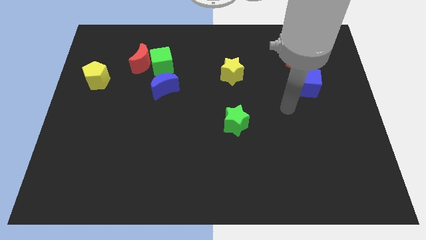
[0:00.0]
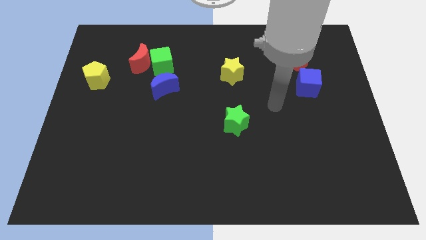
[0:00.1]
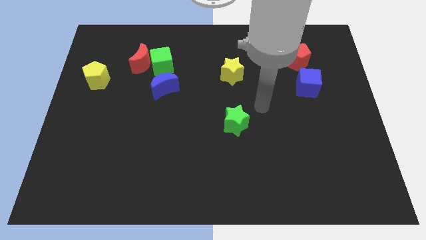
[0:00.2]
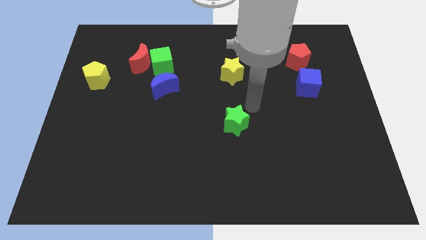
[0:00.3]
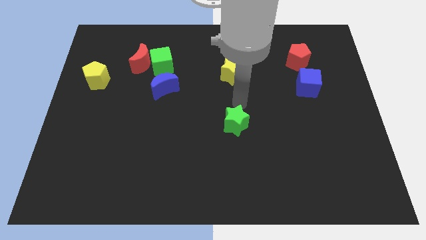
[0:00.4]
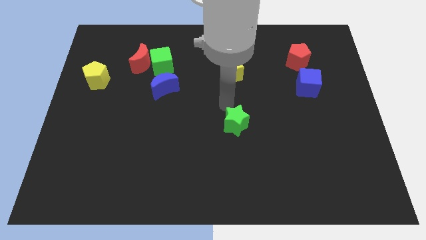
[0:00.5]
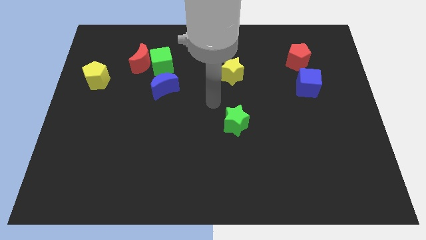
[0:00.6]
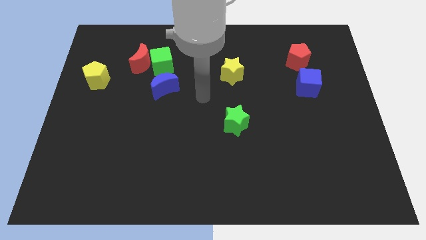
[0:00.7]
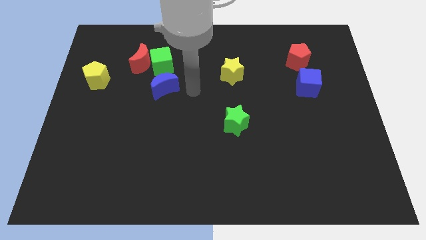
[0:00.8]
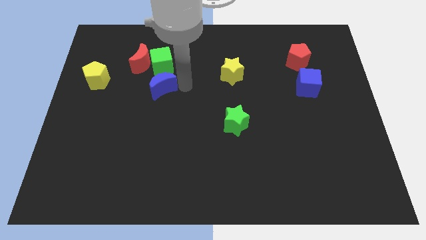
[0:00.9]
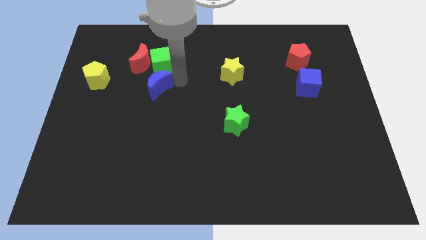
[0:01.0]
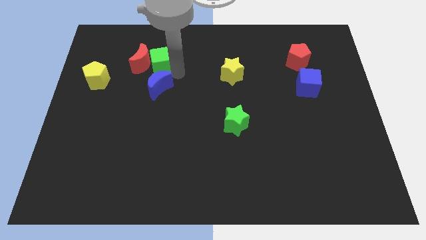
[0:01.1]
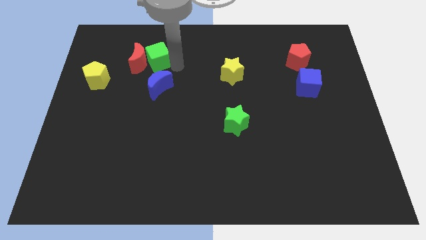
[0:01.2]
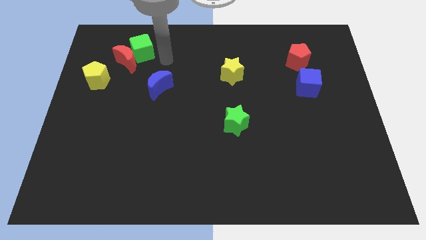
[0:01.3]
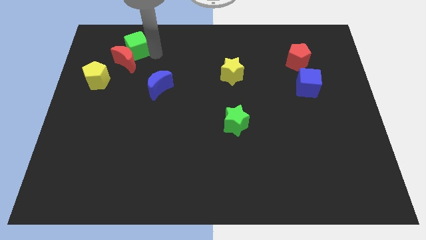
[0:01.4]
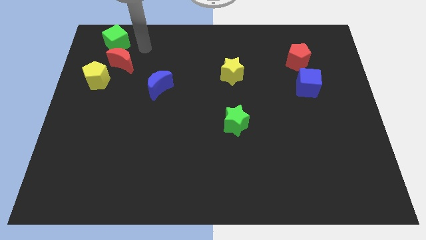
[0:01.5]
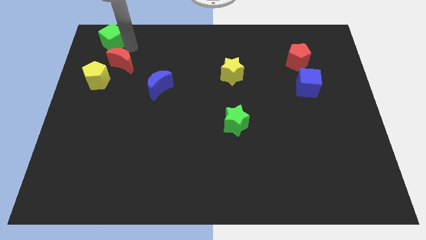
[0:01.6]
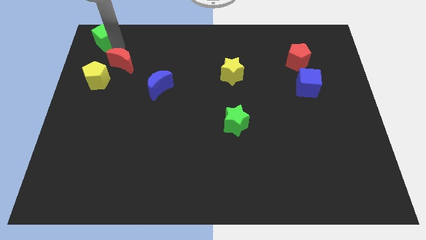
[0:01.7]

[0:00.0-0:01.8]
pull the red moon apart from the green cube

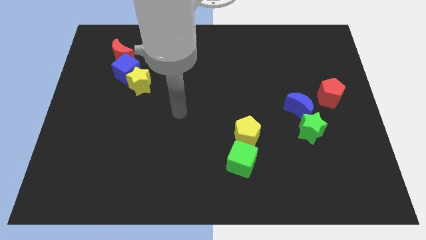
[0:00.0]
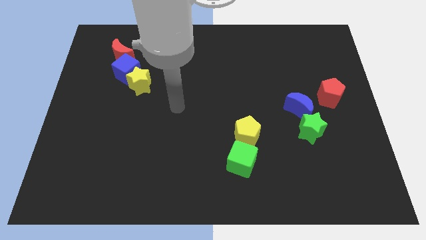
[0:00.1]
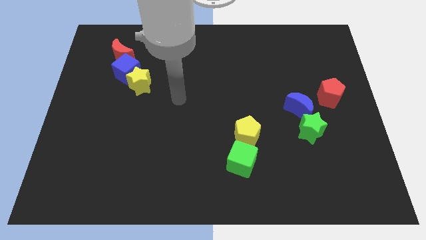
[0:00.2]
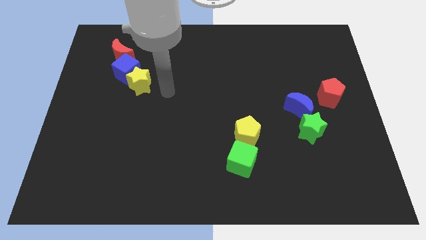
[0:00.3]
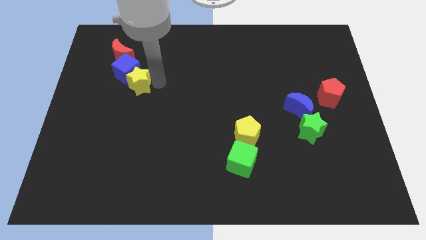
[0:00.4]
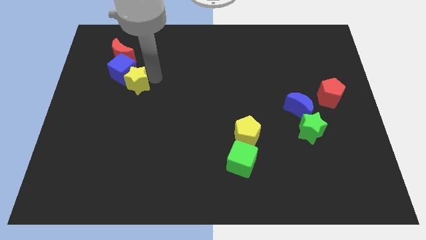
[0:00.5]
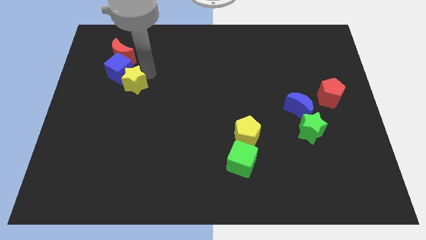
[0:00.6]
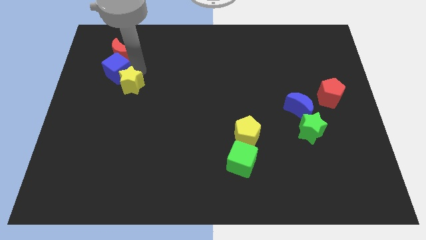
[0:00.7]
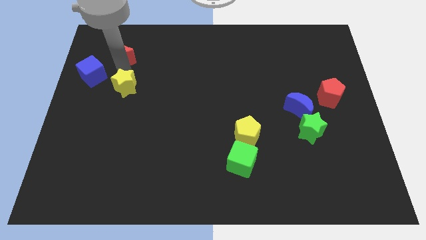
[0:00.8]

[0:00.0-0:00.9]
separate the yellow star from the blue cube

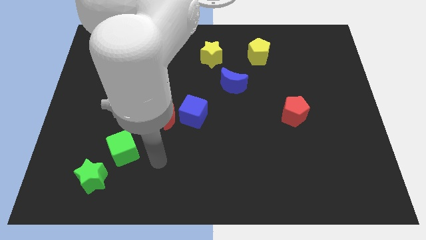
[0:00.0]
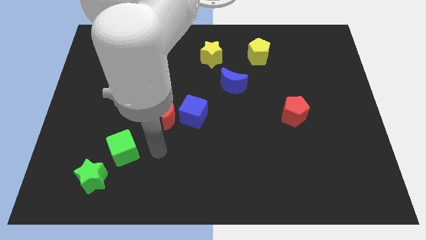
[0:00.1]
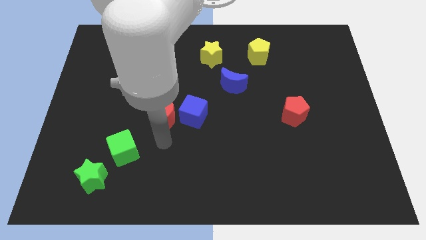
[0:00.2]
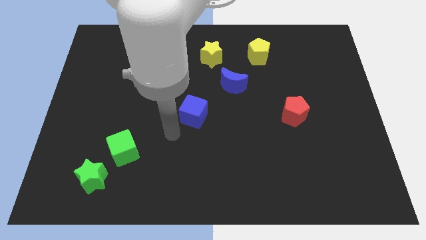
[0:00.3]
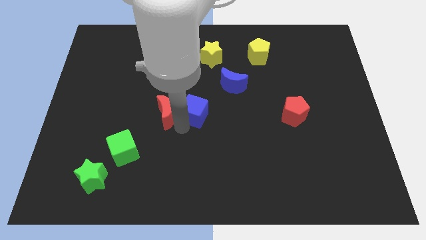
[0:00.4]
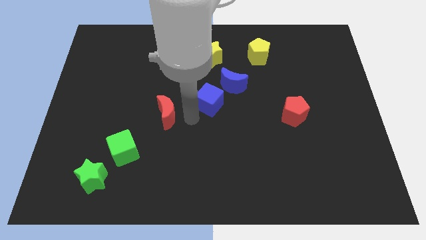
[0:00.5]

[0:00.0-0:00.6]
separate the red moon from the blue cube

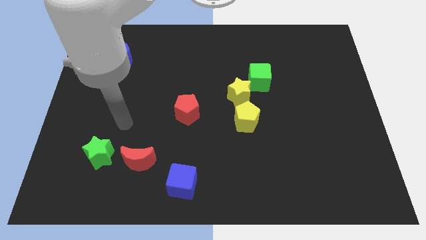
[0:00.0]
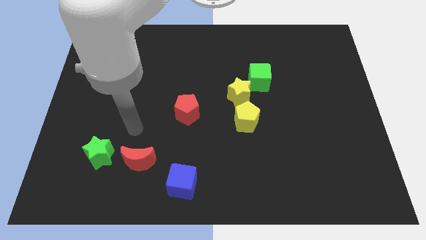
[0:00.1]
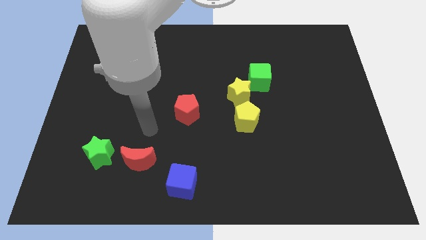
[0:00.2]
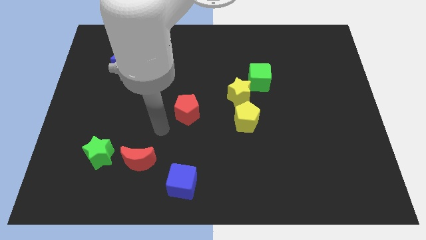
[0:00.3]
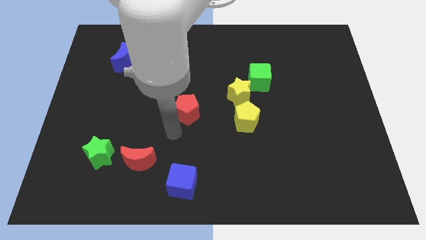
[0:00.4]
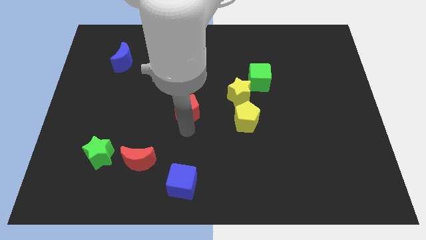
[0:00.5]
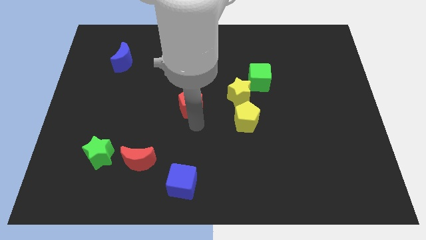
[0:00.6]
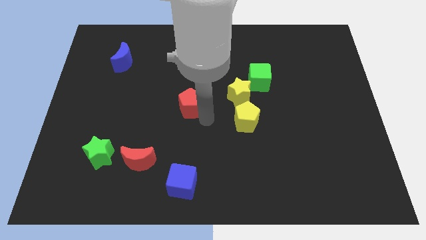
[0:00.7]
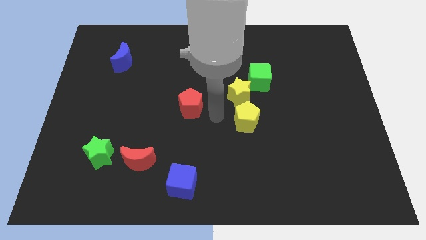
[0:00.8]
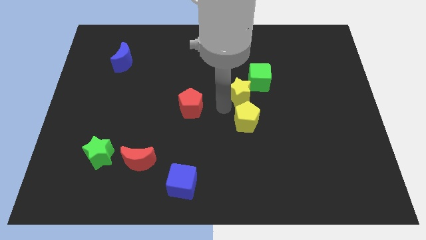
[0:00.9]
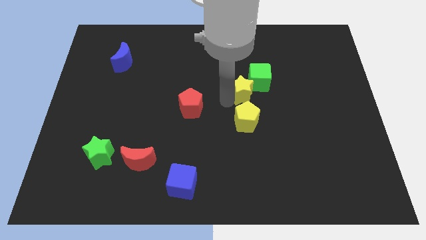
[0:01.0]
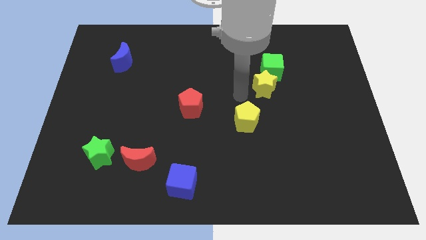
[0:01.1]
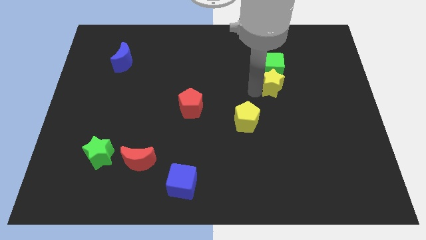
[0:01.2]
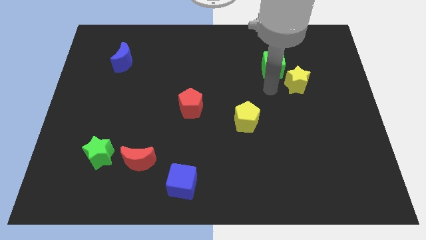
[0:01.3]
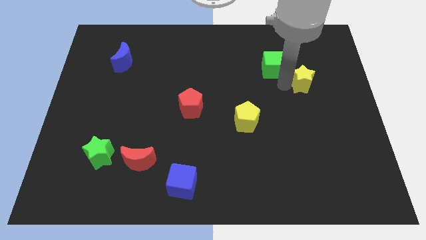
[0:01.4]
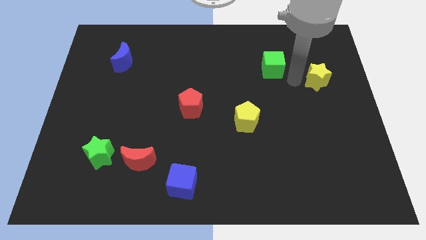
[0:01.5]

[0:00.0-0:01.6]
move the green cube away from the yellow star

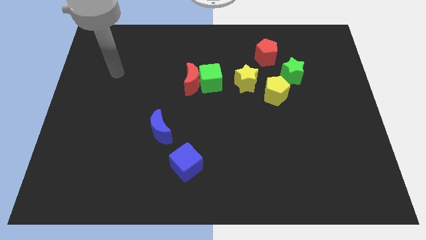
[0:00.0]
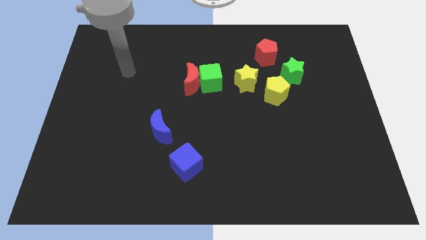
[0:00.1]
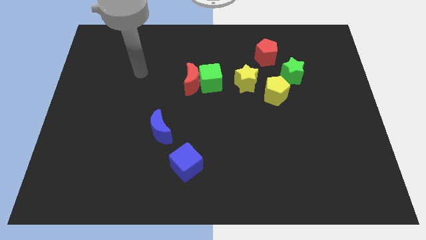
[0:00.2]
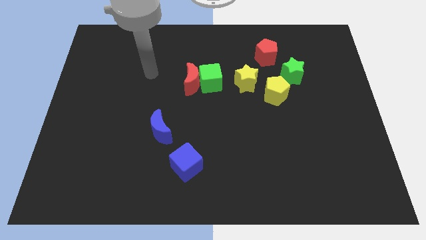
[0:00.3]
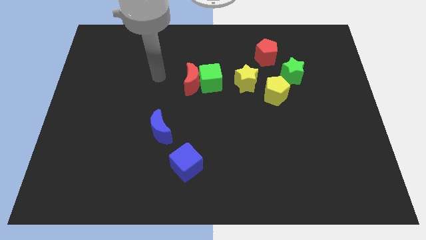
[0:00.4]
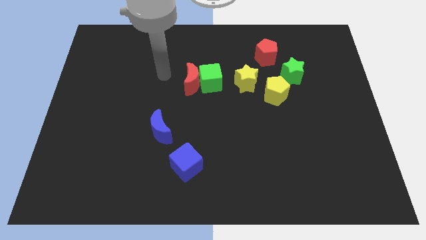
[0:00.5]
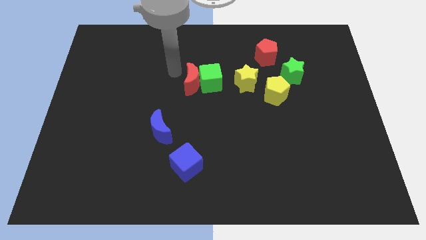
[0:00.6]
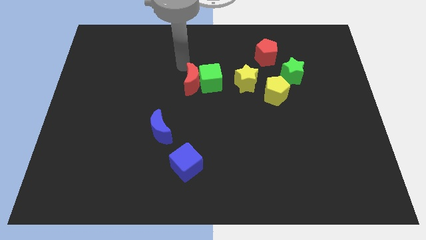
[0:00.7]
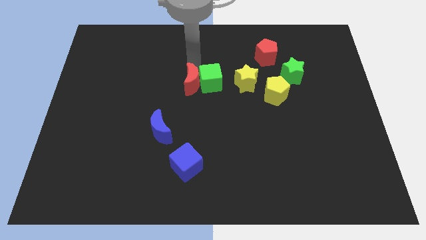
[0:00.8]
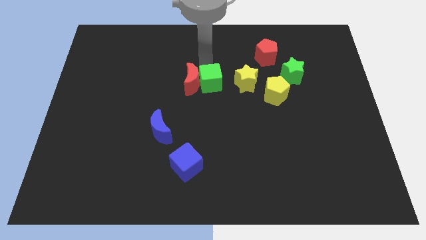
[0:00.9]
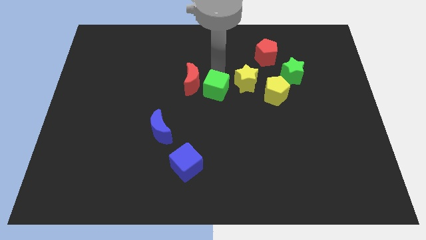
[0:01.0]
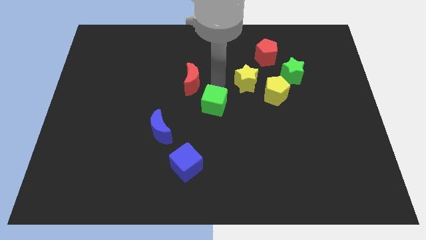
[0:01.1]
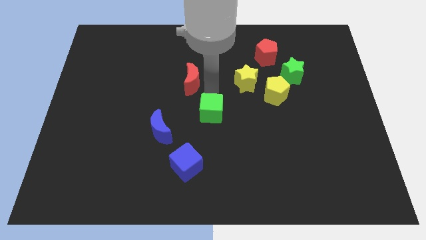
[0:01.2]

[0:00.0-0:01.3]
move the red moon away from the green cube

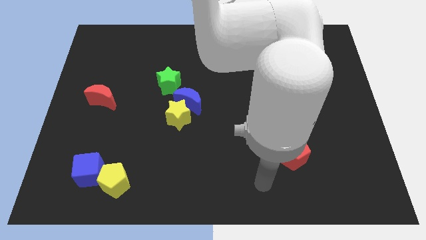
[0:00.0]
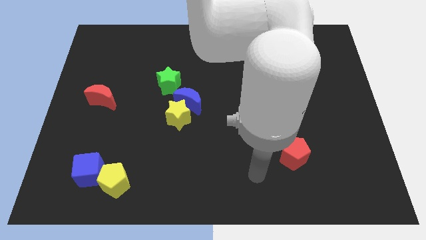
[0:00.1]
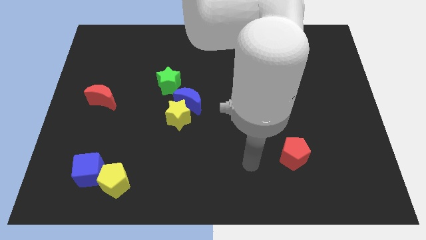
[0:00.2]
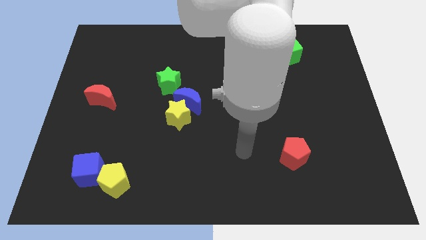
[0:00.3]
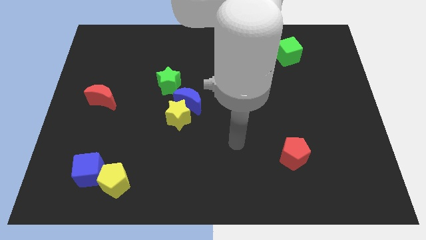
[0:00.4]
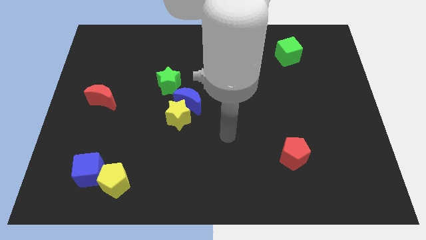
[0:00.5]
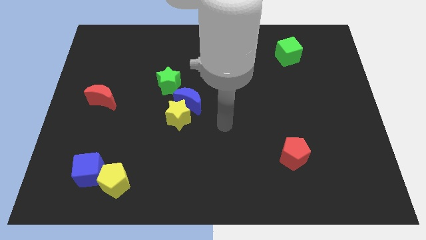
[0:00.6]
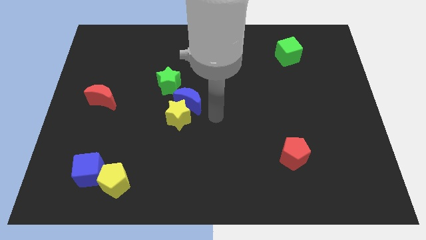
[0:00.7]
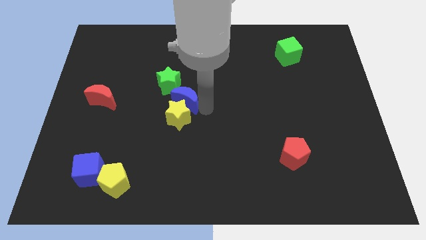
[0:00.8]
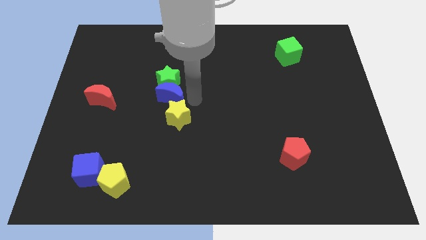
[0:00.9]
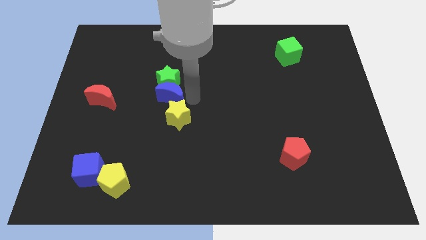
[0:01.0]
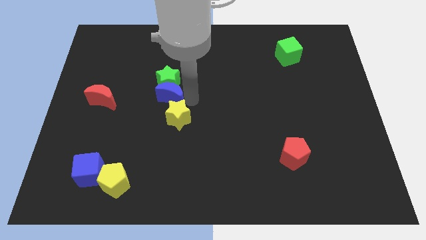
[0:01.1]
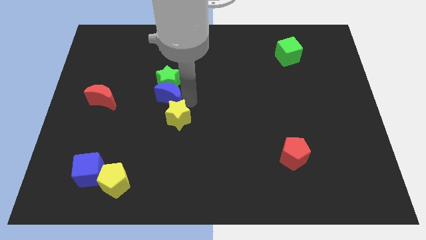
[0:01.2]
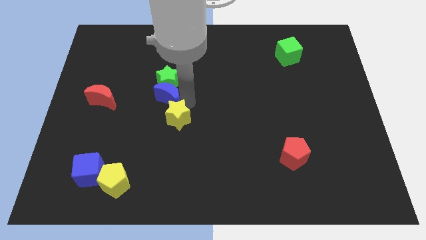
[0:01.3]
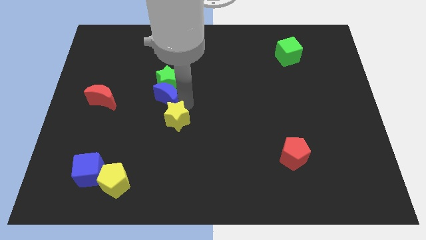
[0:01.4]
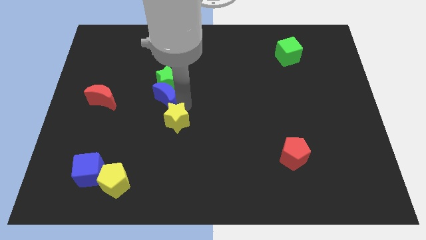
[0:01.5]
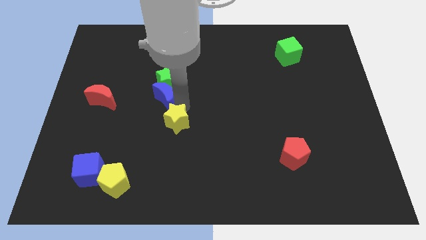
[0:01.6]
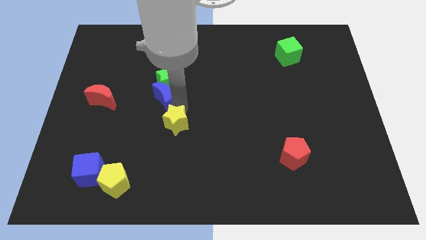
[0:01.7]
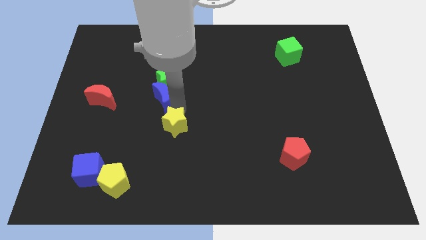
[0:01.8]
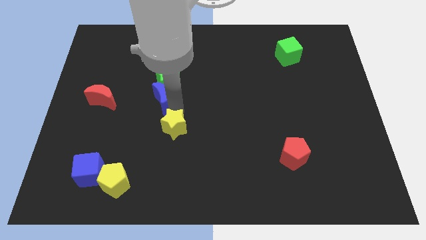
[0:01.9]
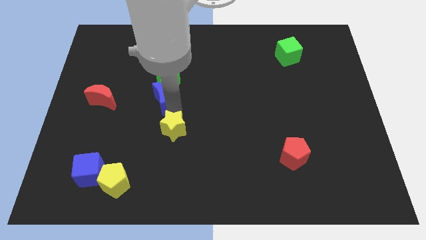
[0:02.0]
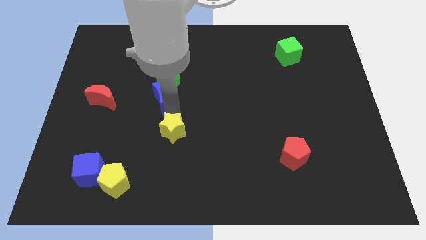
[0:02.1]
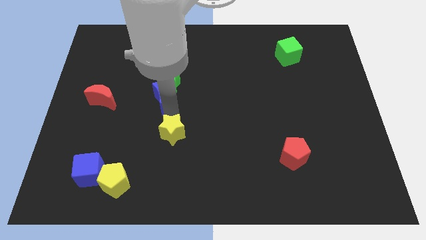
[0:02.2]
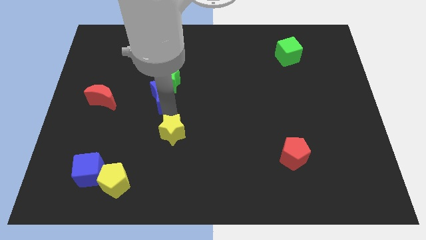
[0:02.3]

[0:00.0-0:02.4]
move the yellow star away from the blue moon

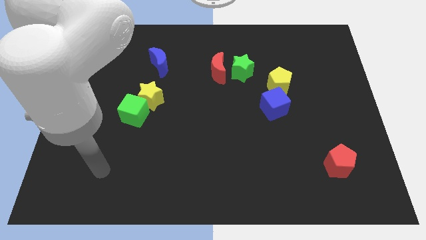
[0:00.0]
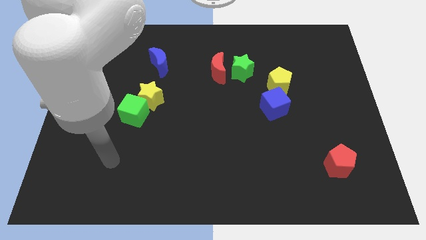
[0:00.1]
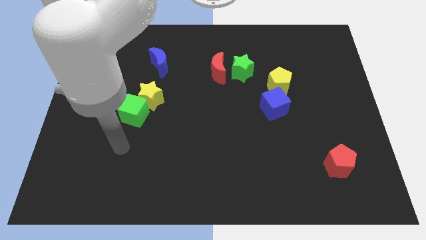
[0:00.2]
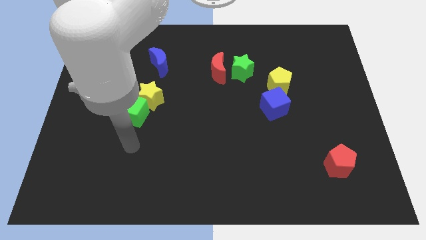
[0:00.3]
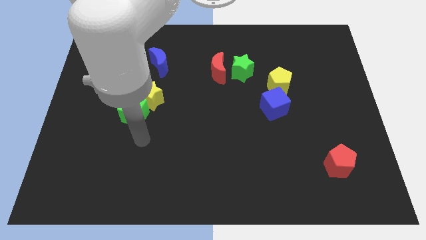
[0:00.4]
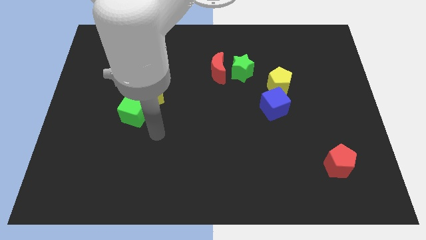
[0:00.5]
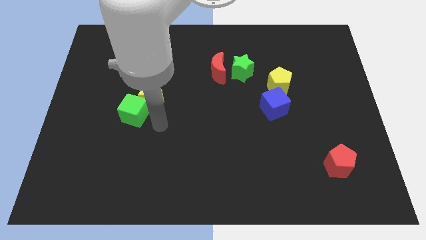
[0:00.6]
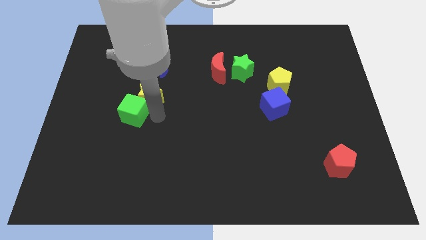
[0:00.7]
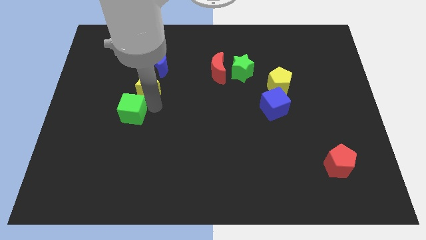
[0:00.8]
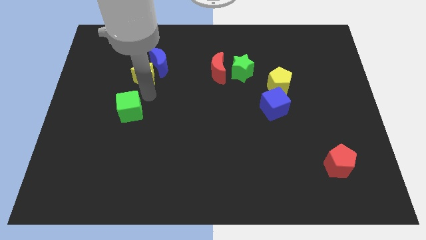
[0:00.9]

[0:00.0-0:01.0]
pull the green cube apart from the yellow star
